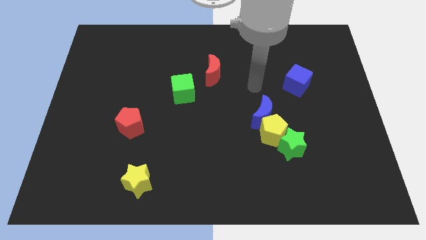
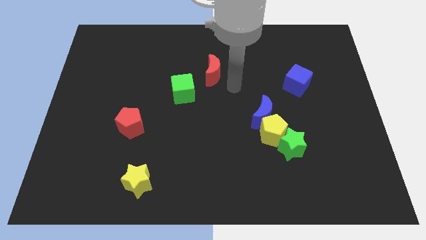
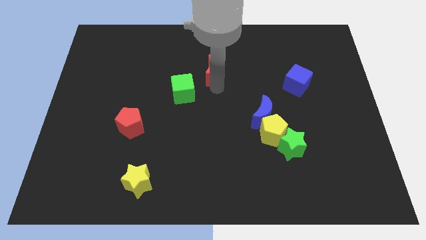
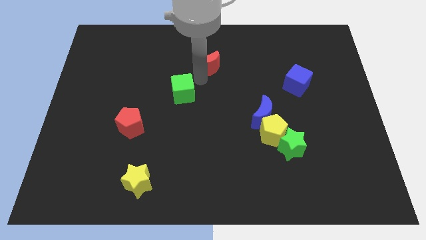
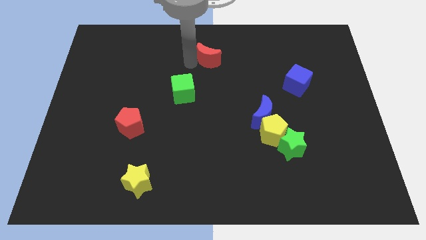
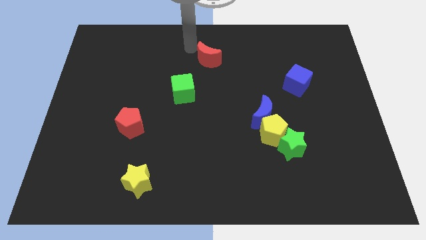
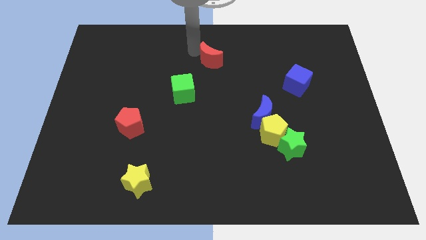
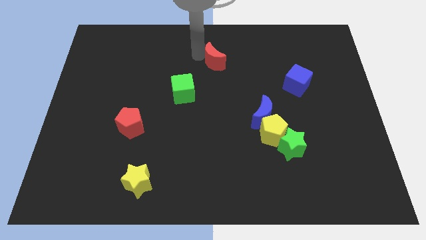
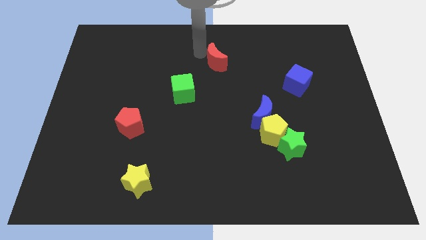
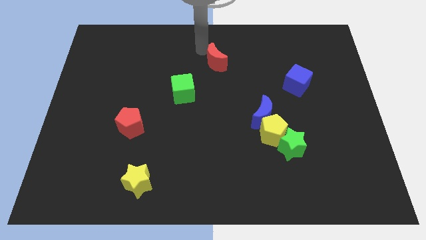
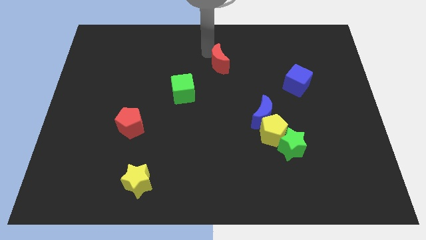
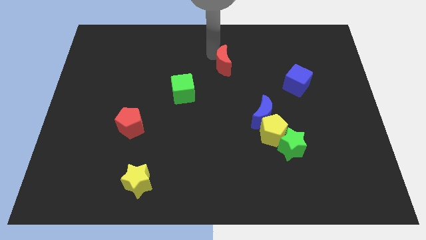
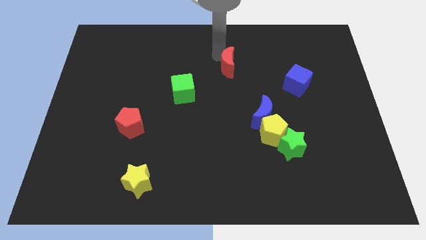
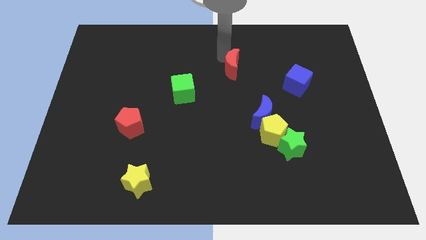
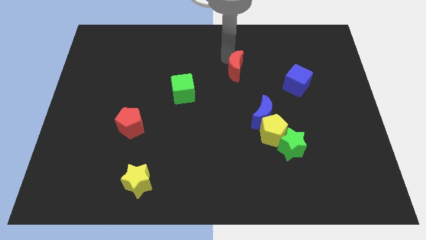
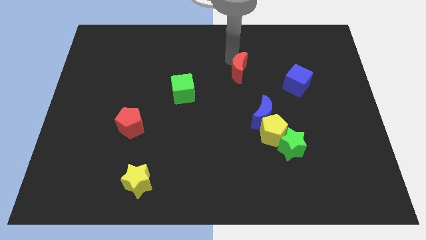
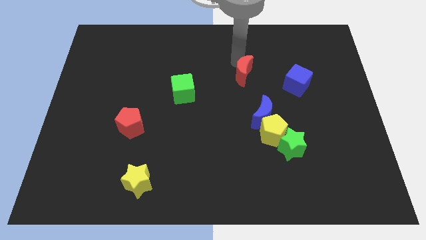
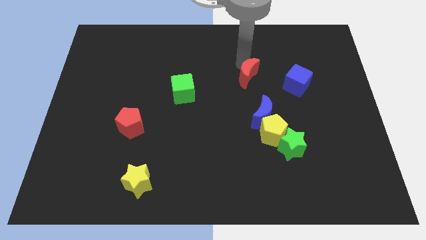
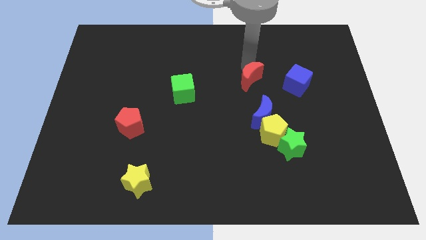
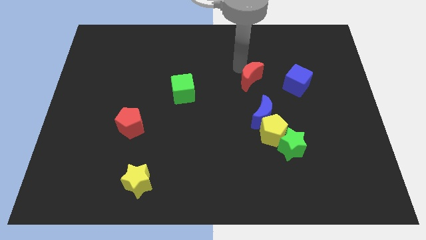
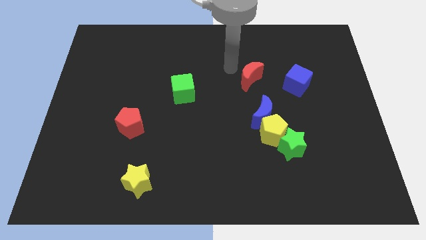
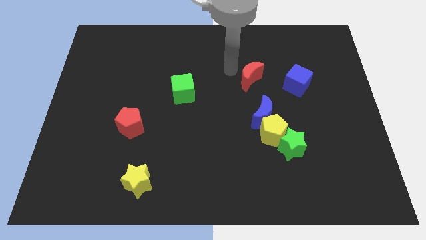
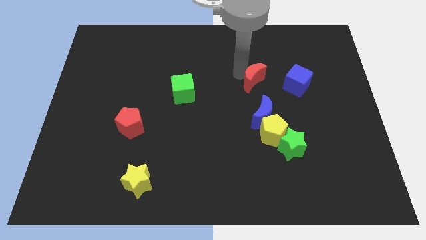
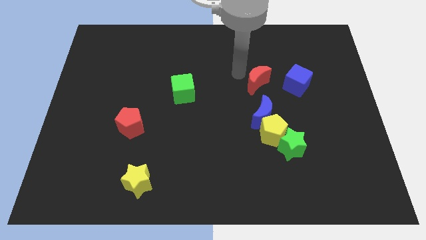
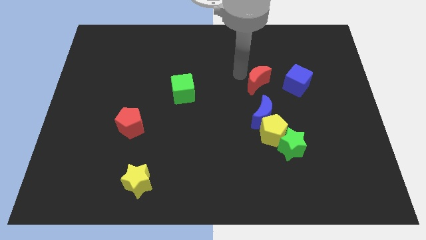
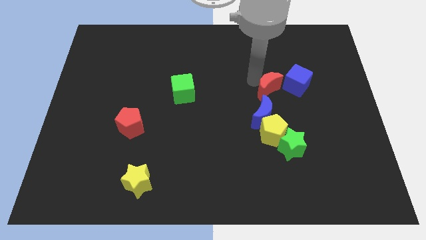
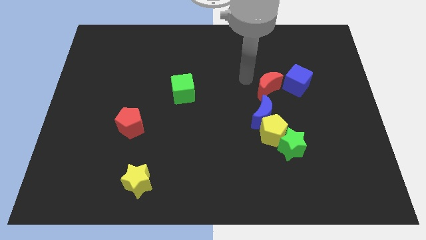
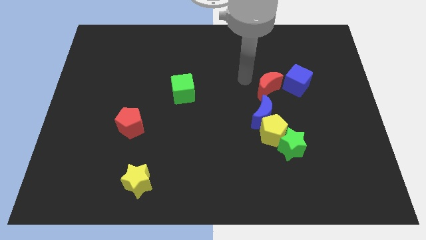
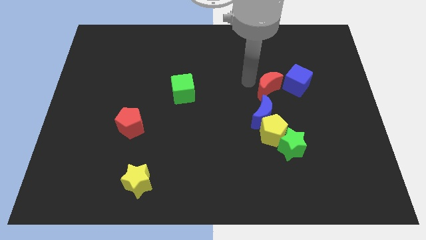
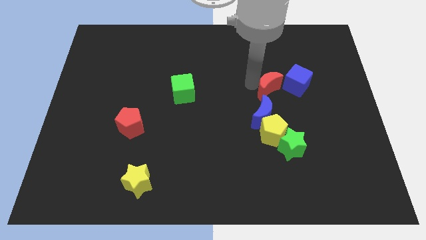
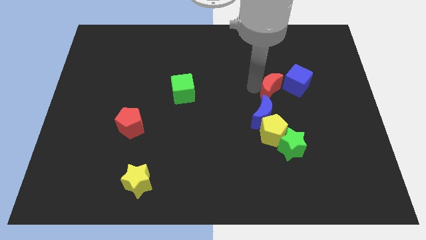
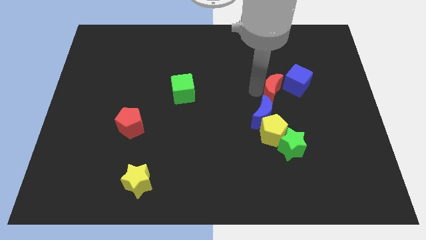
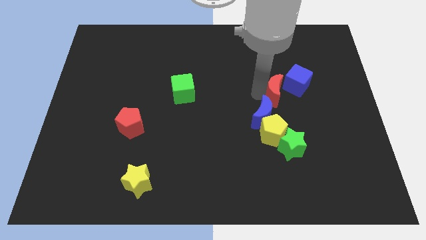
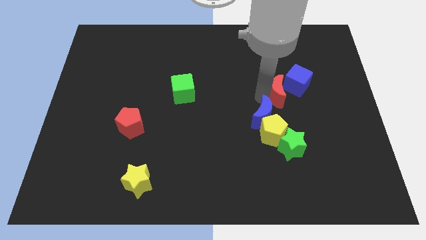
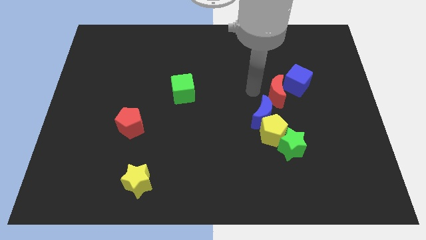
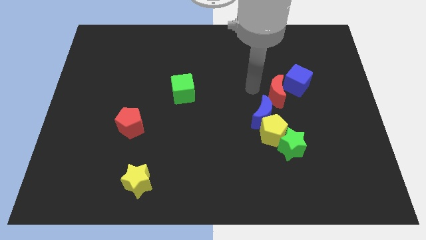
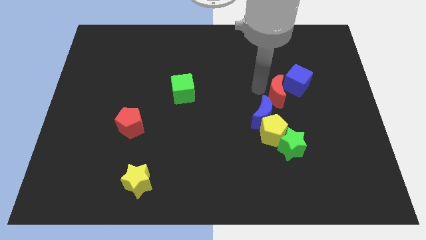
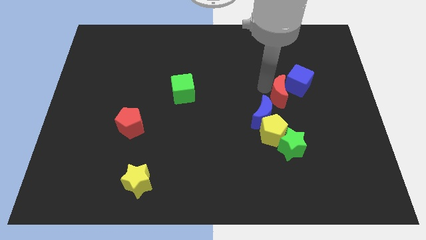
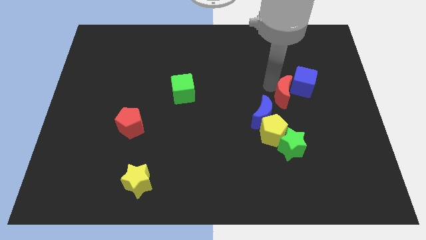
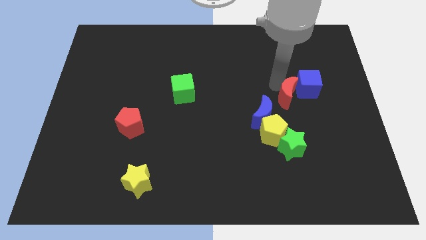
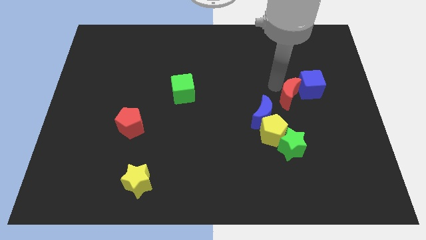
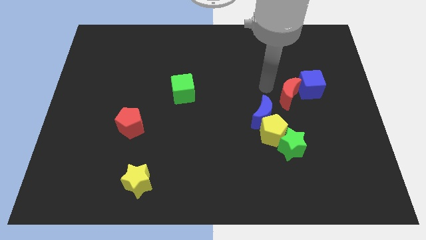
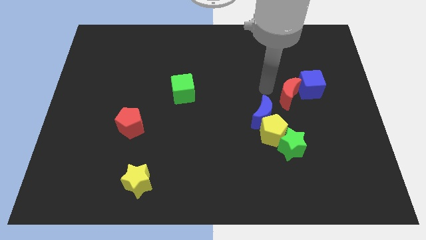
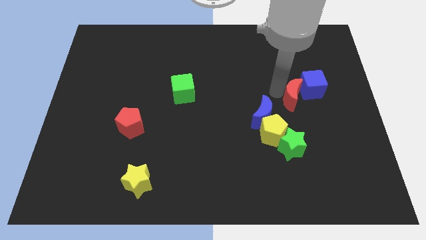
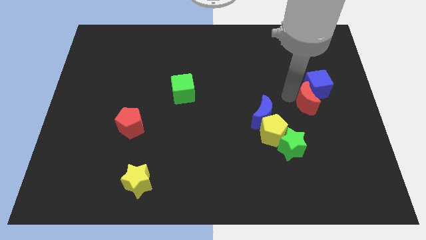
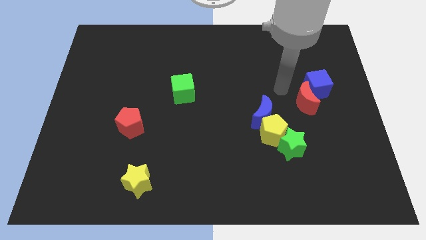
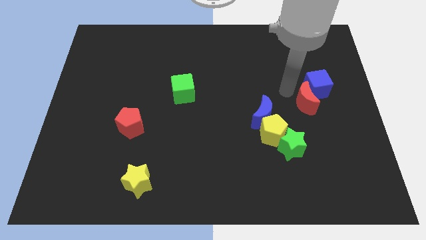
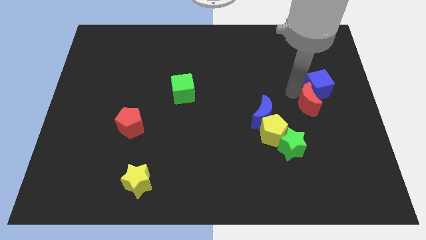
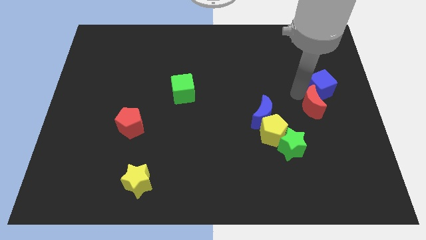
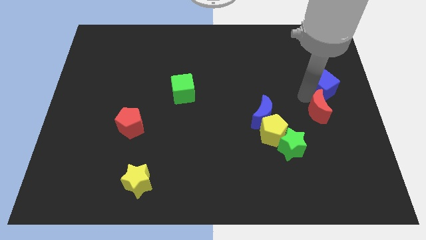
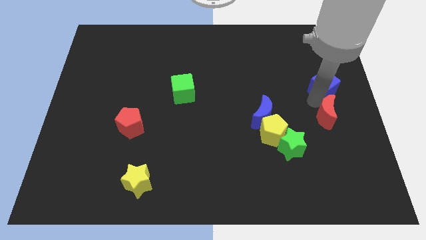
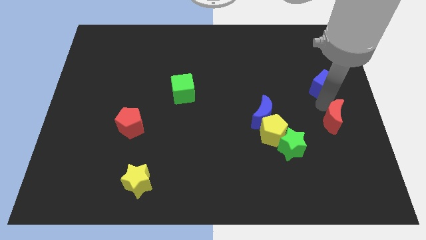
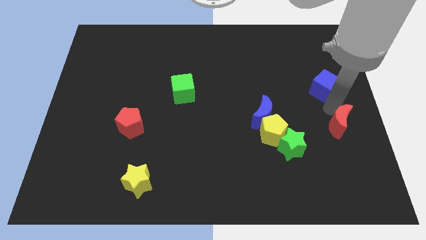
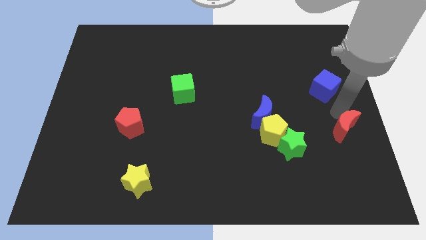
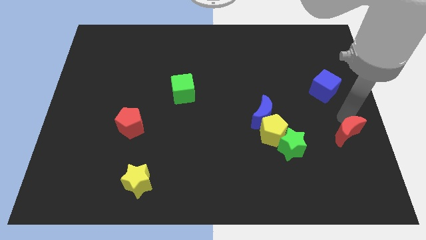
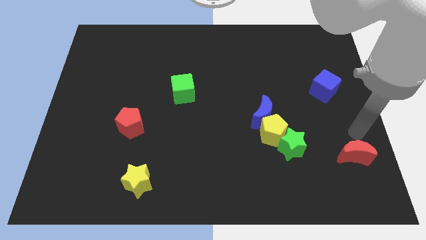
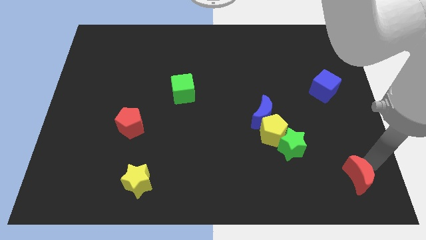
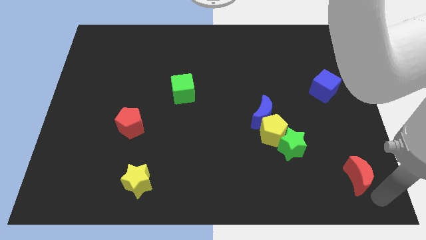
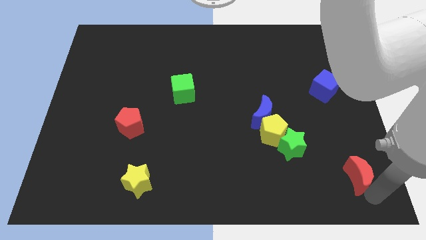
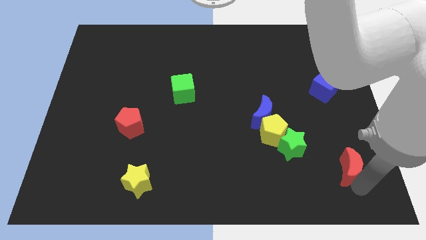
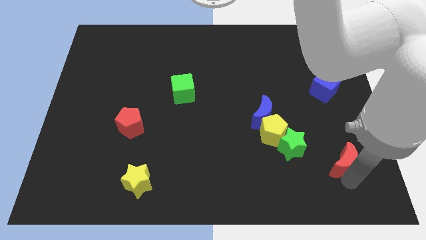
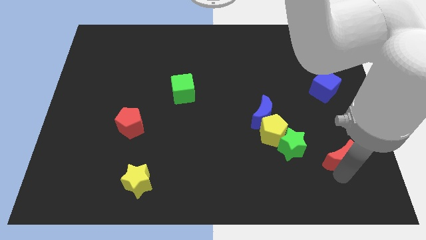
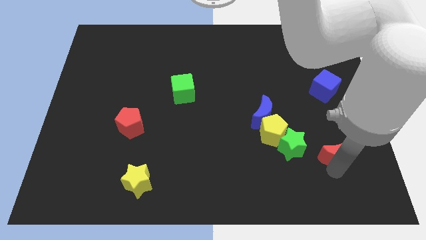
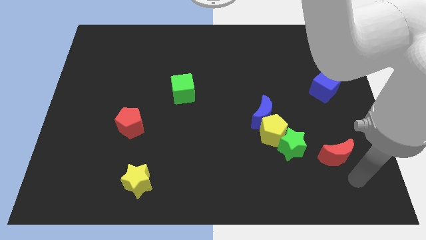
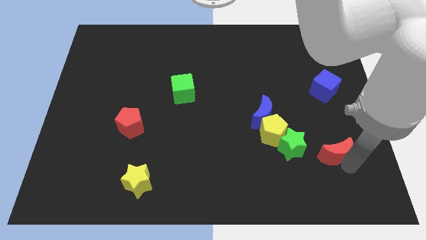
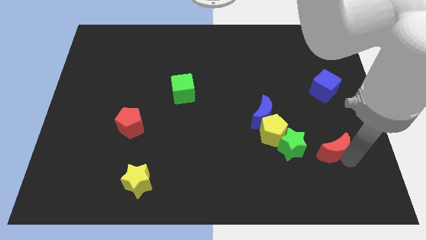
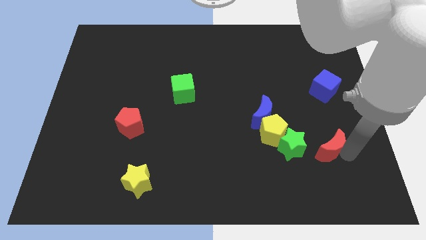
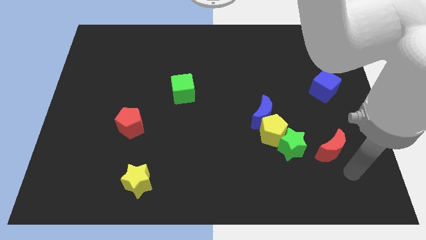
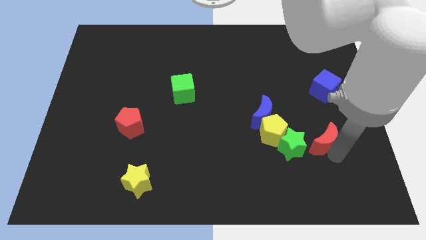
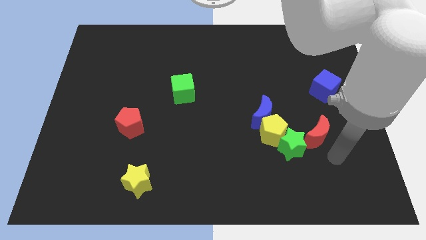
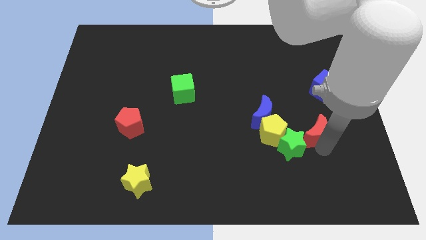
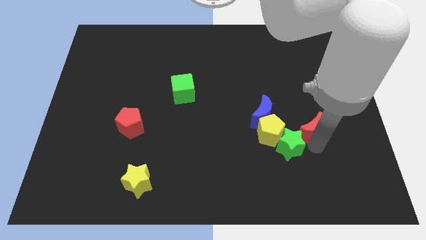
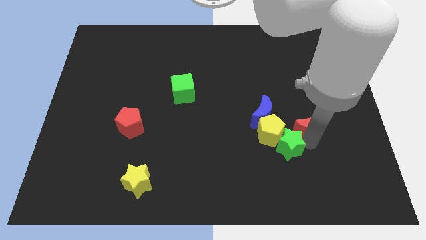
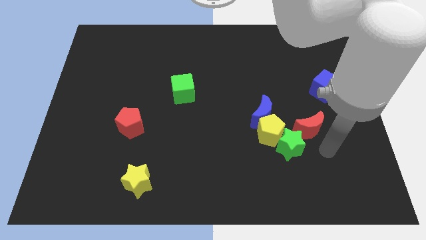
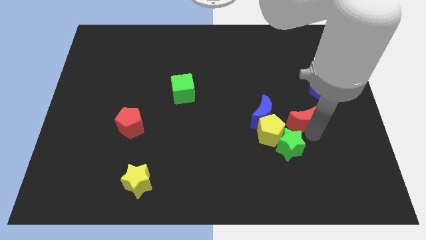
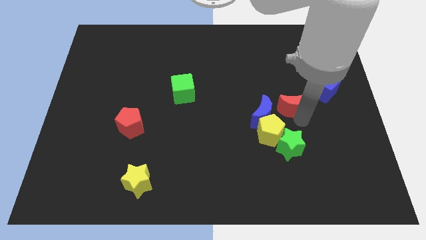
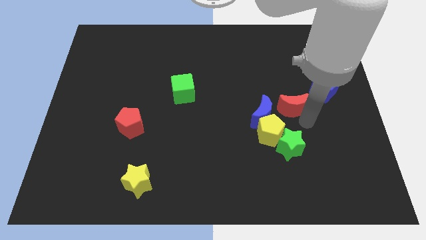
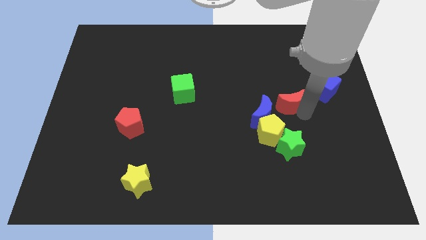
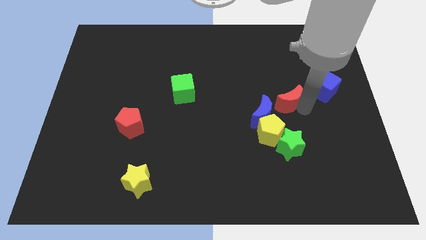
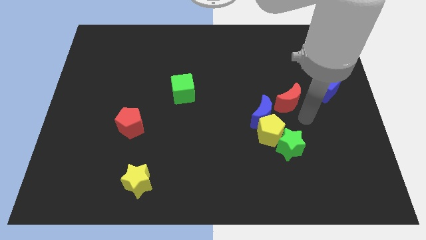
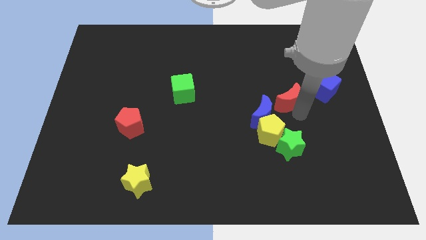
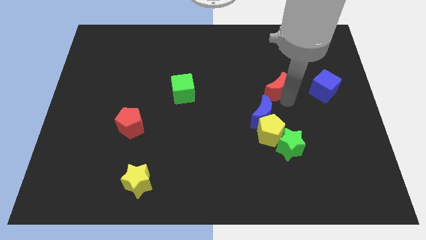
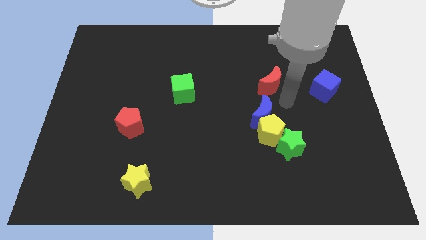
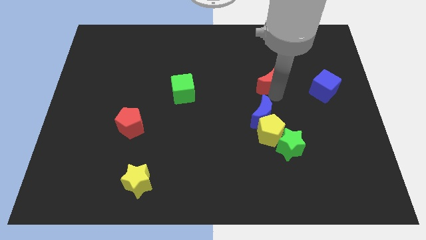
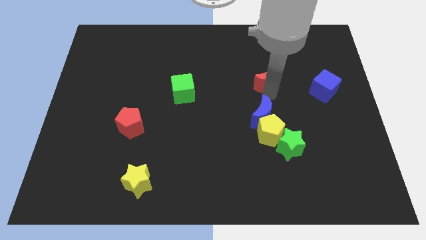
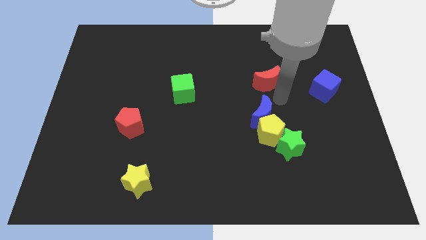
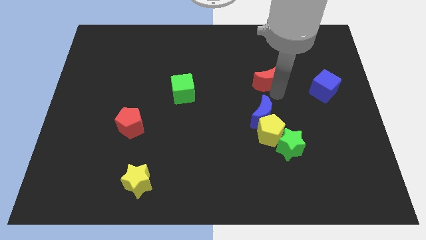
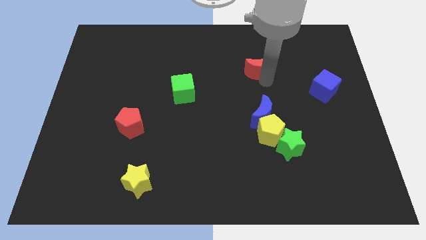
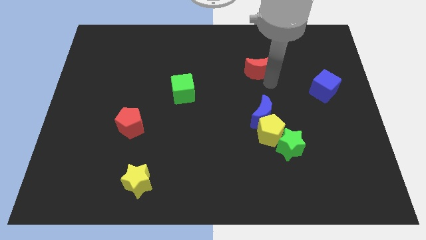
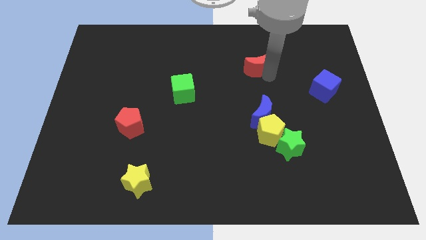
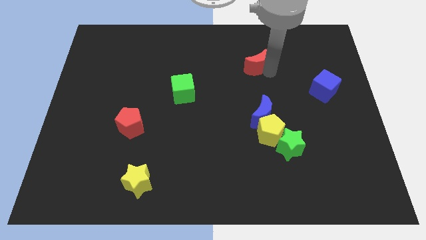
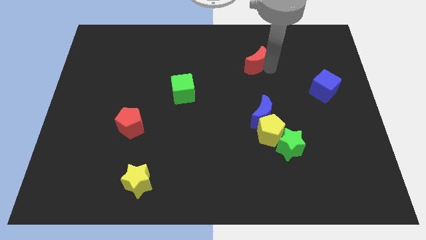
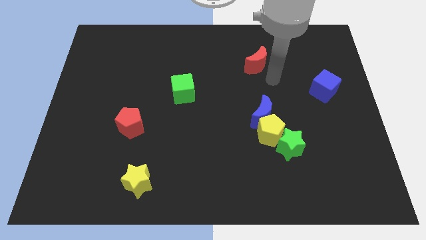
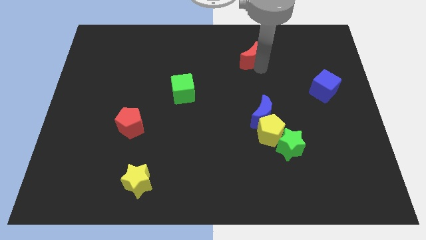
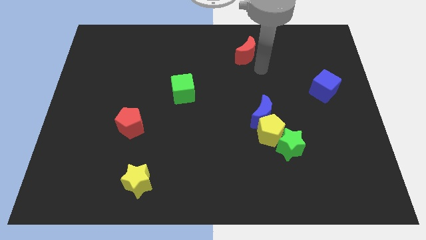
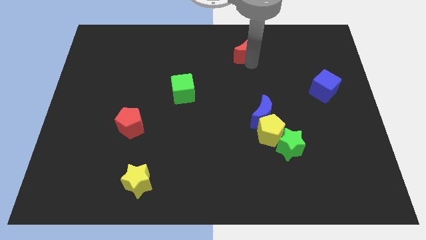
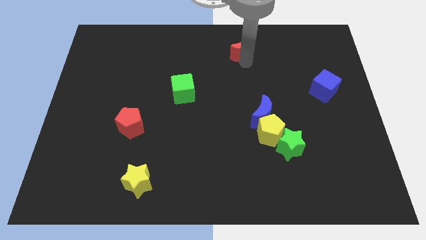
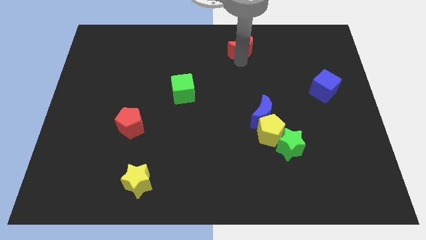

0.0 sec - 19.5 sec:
move the red moon to the top side
